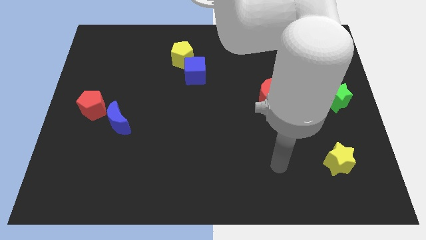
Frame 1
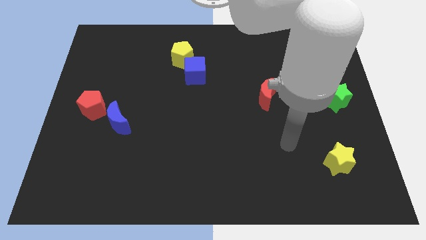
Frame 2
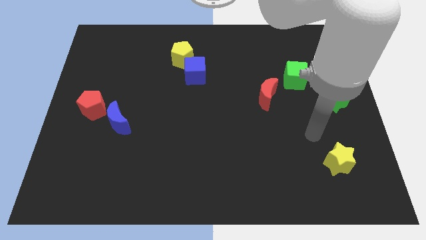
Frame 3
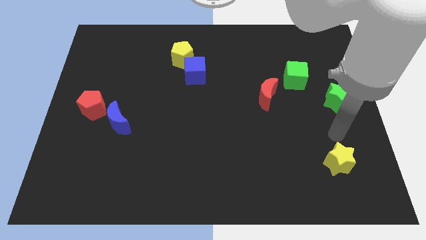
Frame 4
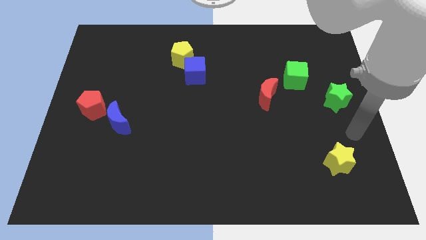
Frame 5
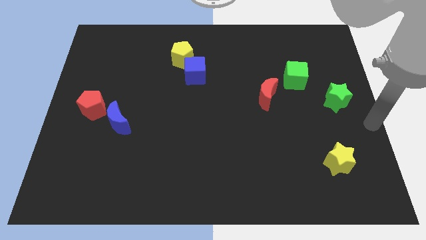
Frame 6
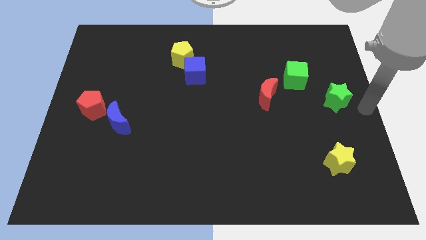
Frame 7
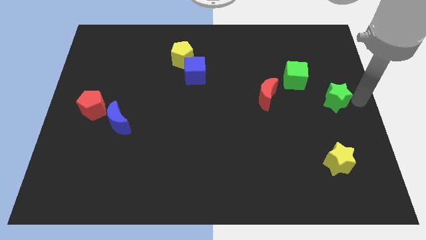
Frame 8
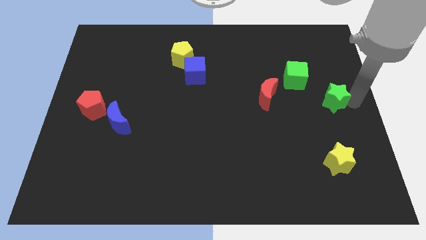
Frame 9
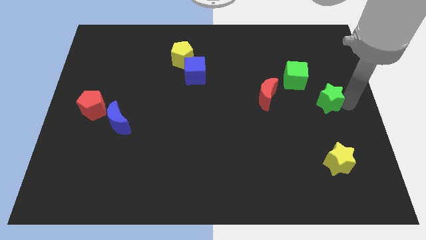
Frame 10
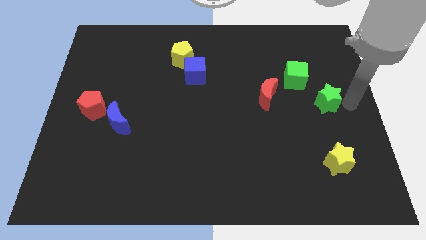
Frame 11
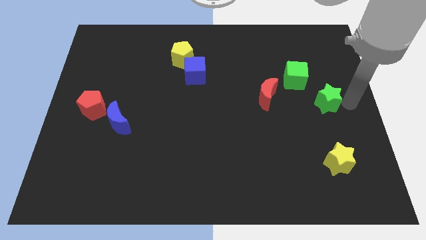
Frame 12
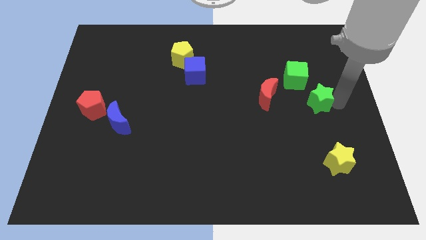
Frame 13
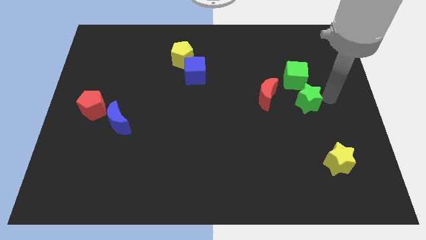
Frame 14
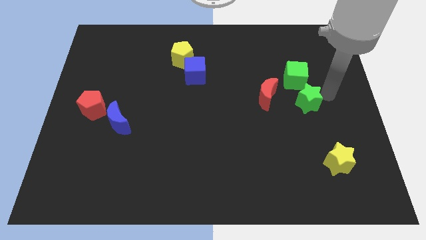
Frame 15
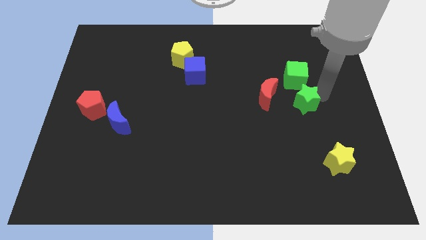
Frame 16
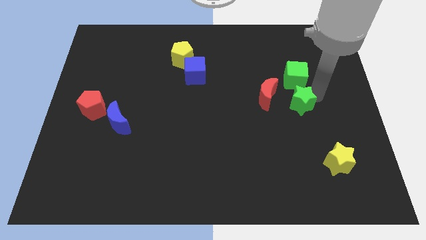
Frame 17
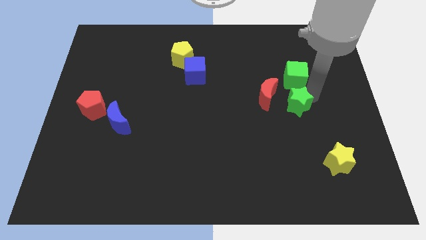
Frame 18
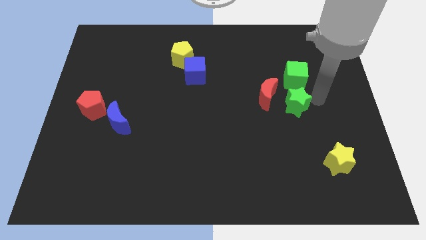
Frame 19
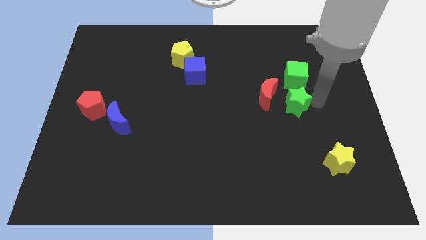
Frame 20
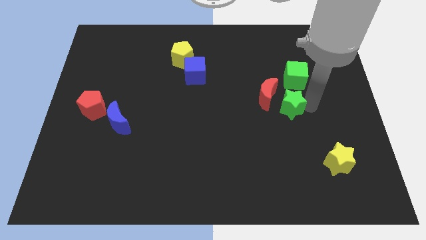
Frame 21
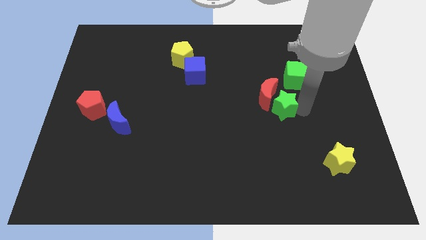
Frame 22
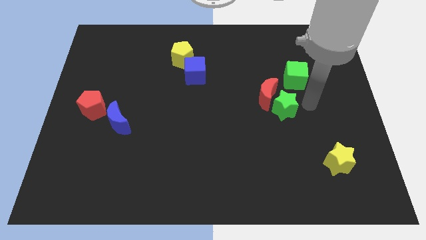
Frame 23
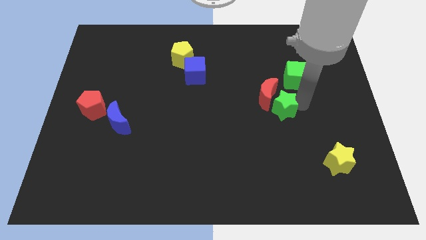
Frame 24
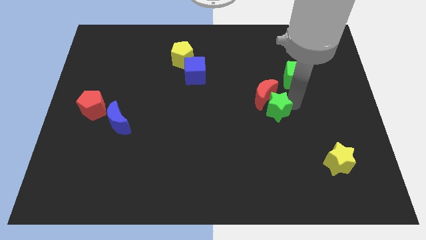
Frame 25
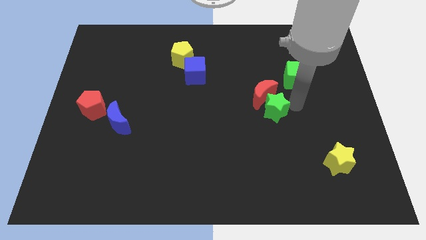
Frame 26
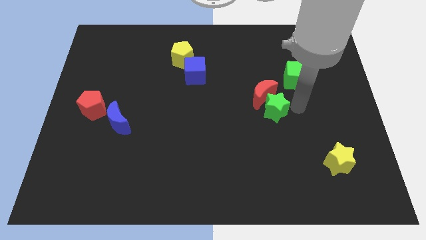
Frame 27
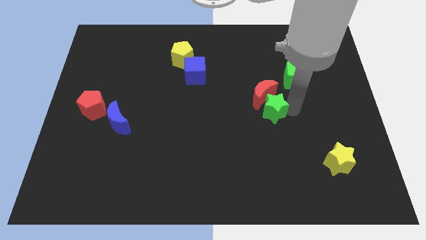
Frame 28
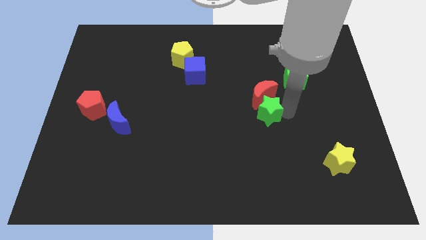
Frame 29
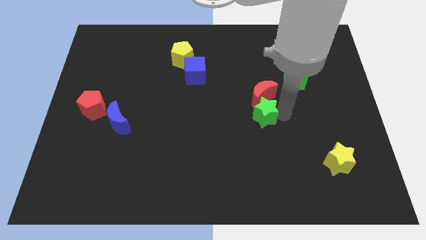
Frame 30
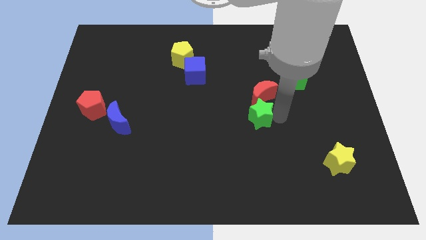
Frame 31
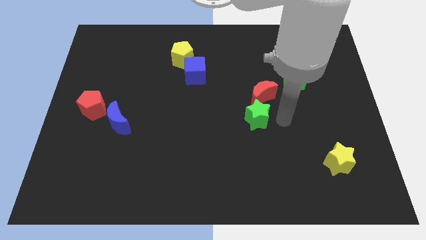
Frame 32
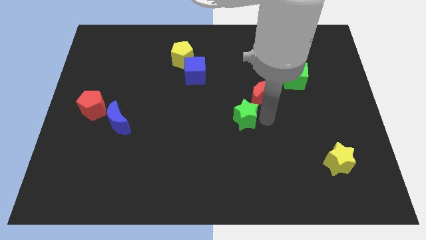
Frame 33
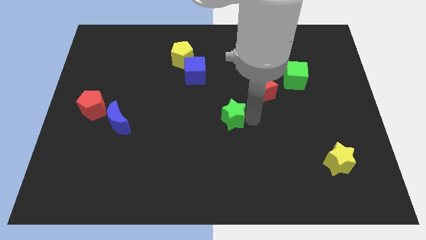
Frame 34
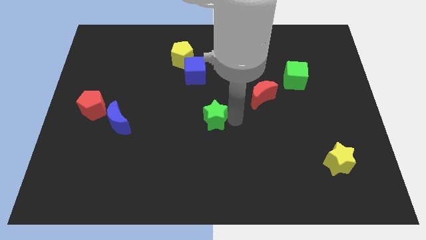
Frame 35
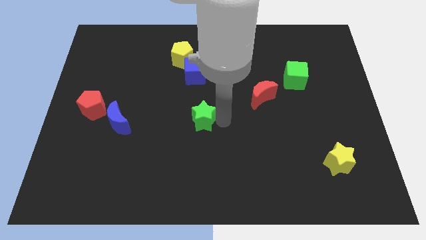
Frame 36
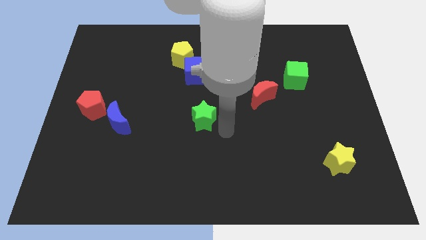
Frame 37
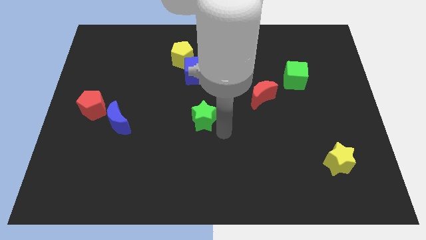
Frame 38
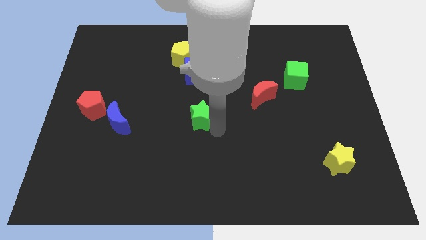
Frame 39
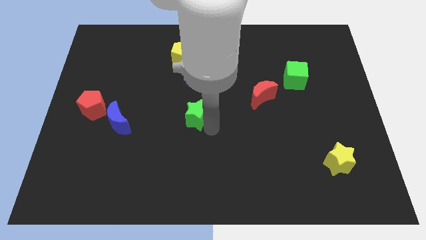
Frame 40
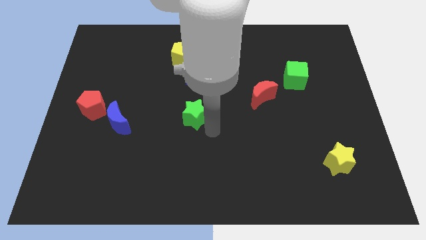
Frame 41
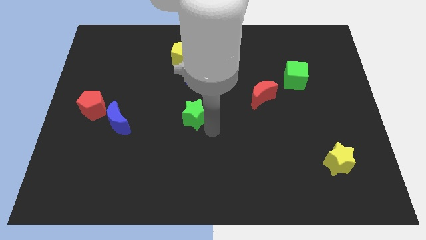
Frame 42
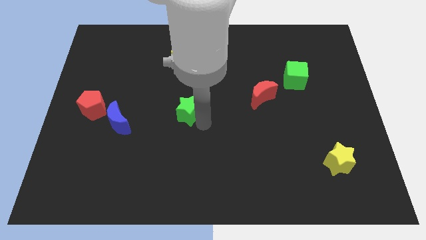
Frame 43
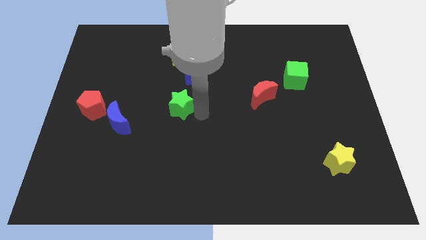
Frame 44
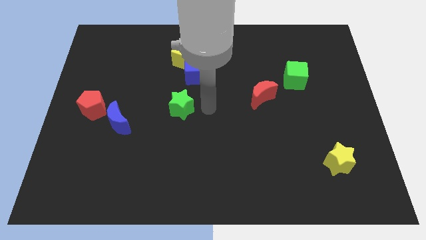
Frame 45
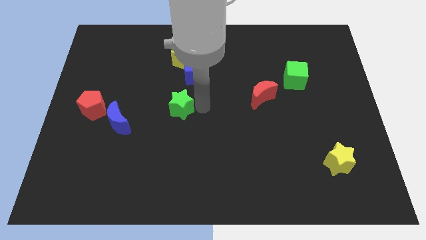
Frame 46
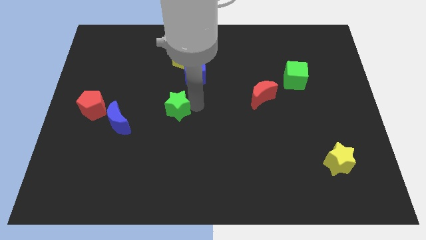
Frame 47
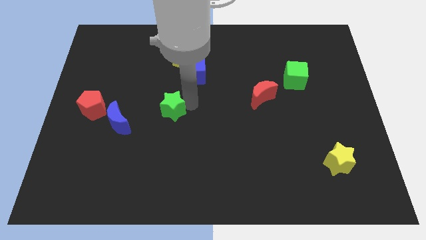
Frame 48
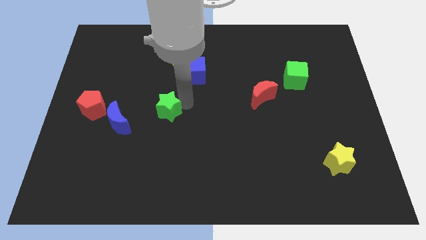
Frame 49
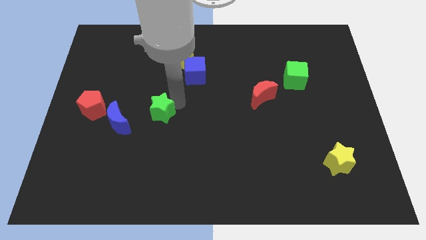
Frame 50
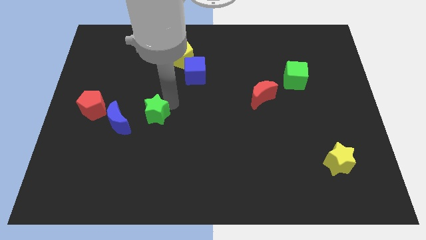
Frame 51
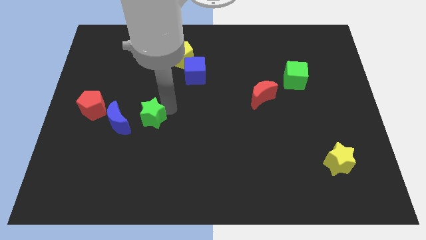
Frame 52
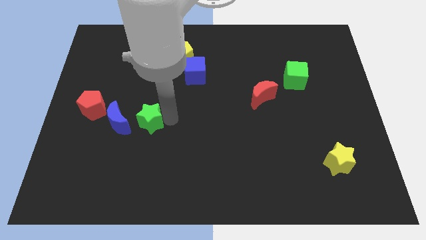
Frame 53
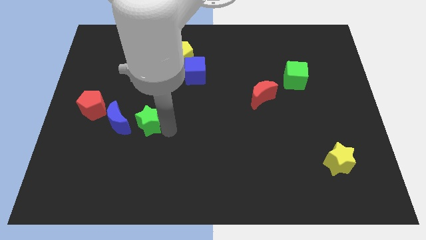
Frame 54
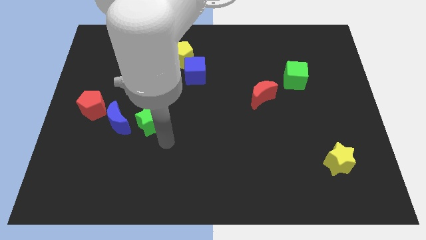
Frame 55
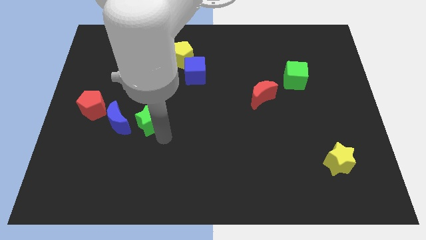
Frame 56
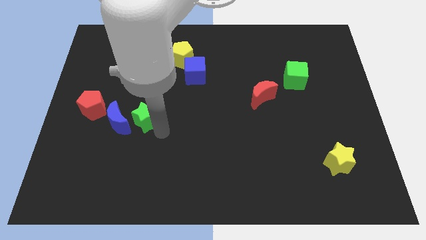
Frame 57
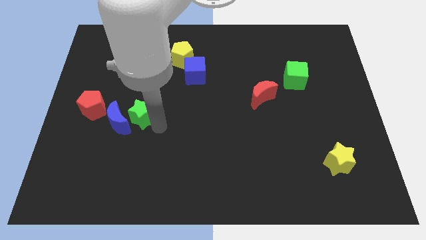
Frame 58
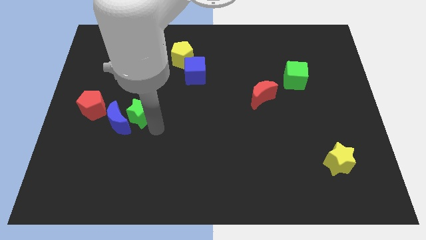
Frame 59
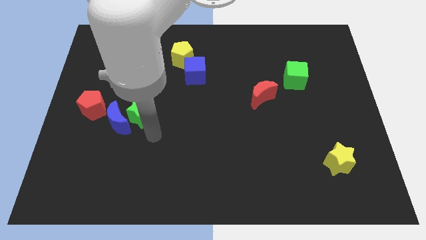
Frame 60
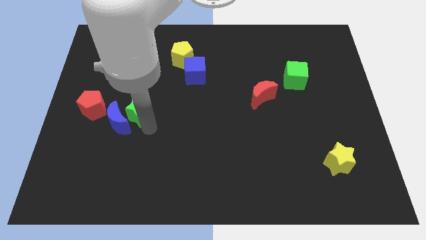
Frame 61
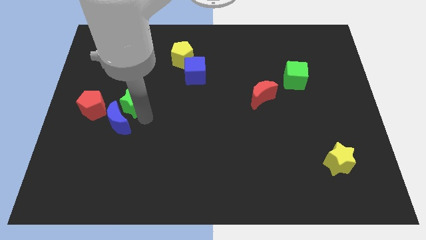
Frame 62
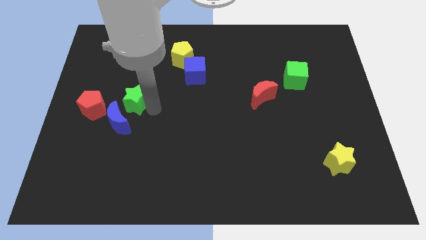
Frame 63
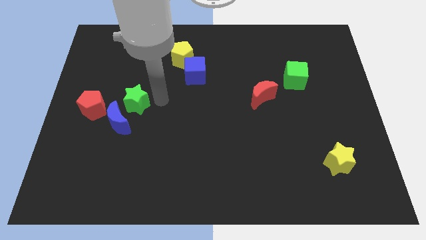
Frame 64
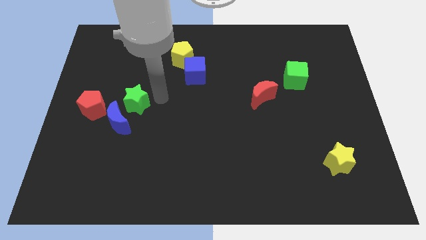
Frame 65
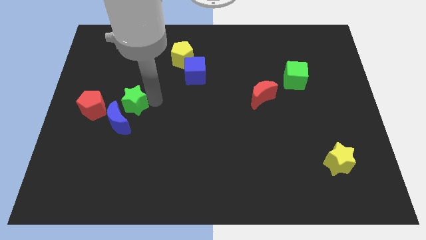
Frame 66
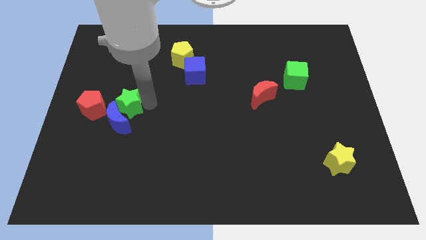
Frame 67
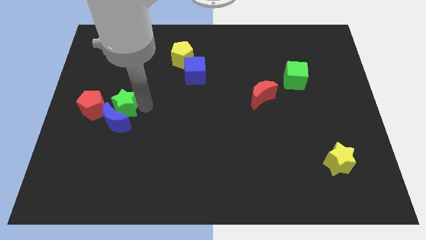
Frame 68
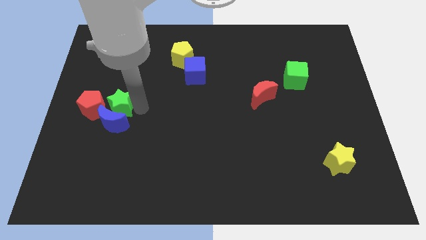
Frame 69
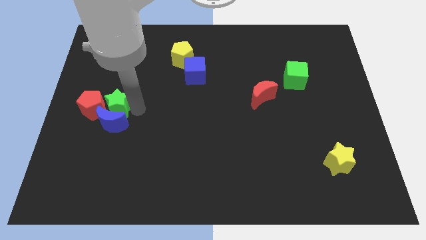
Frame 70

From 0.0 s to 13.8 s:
push the green star to the red pentagon
